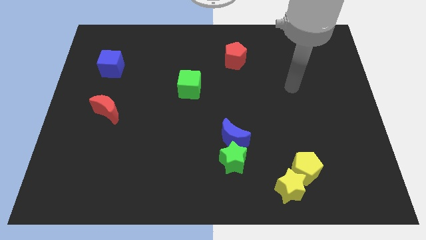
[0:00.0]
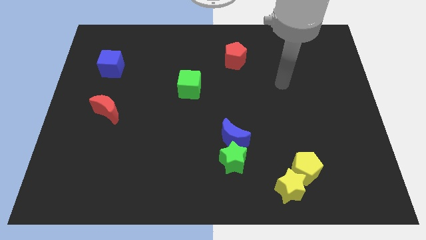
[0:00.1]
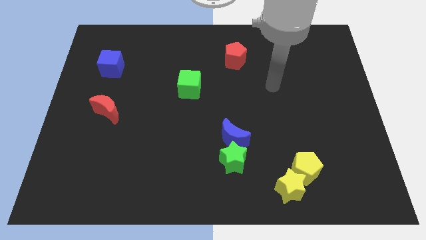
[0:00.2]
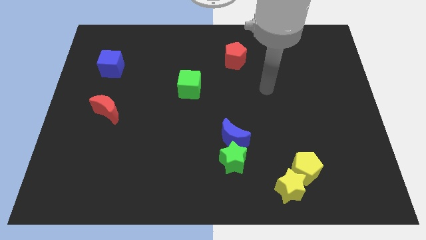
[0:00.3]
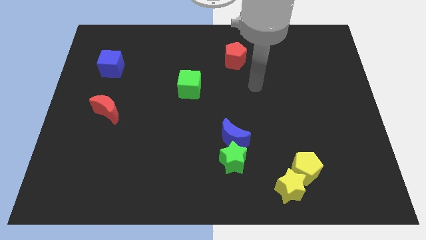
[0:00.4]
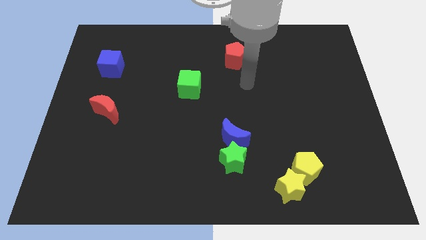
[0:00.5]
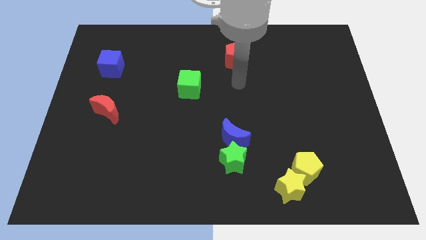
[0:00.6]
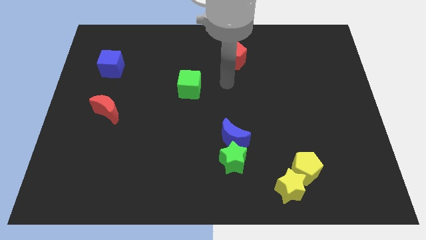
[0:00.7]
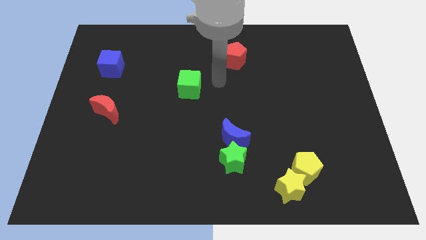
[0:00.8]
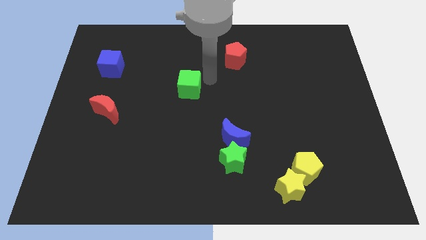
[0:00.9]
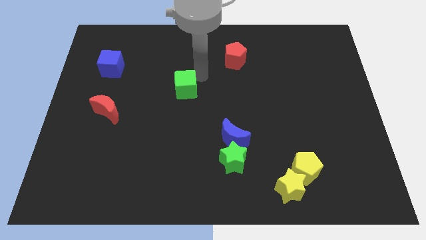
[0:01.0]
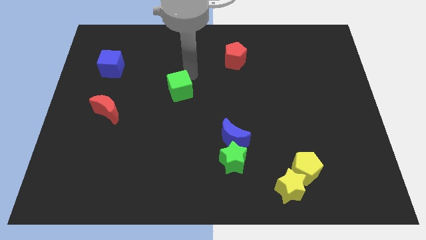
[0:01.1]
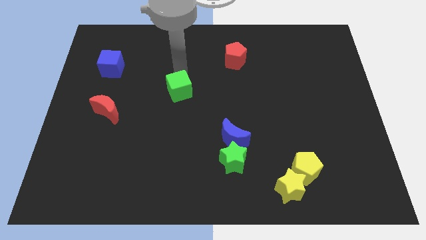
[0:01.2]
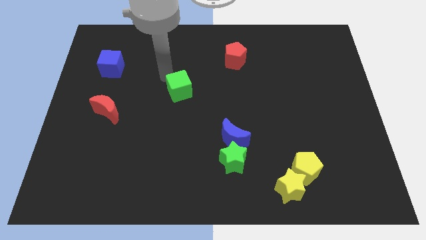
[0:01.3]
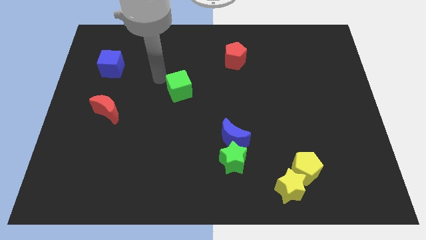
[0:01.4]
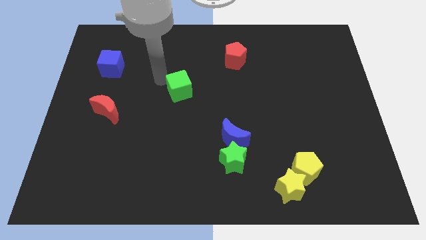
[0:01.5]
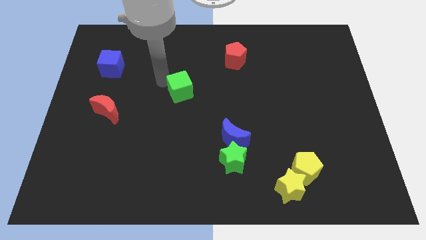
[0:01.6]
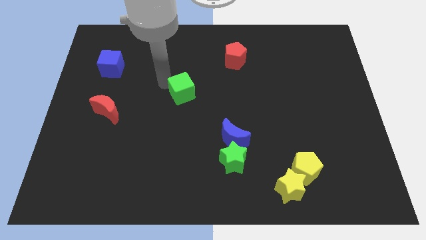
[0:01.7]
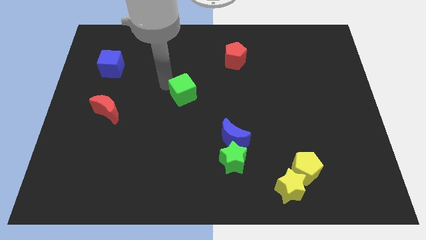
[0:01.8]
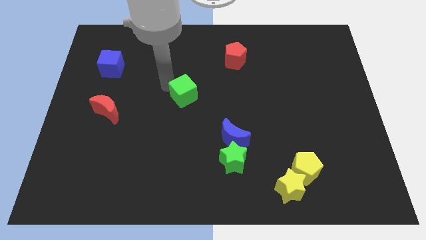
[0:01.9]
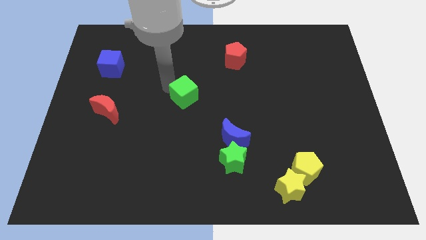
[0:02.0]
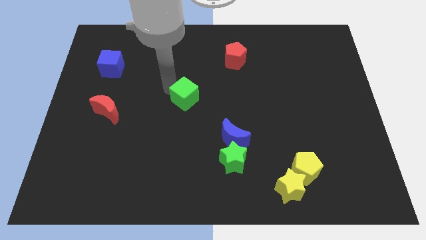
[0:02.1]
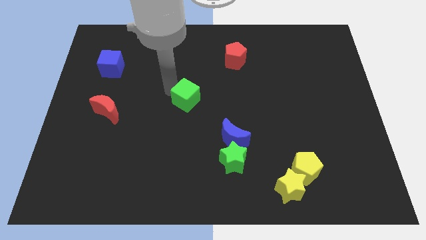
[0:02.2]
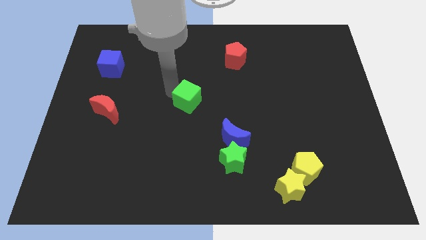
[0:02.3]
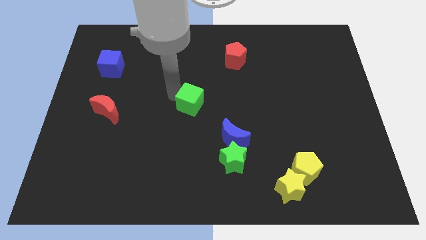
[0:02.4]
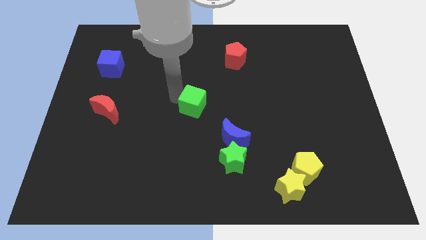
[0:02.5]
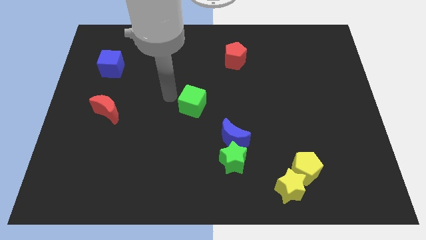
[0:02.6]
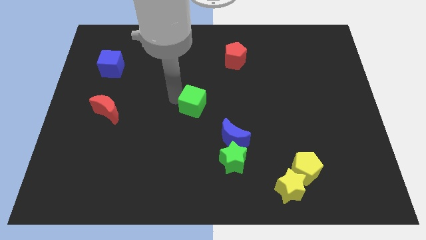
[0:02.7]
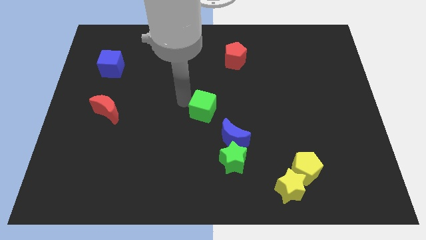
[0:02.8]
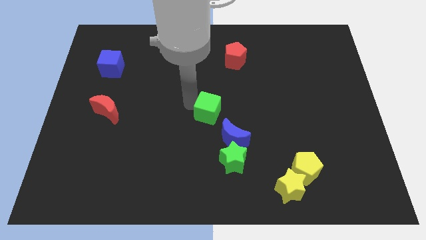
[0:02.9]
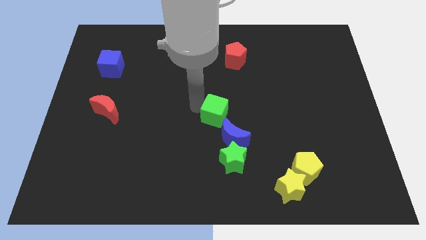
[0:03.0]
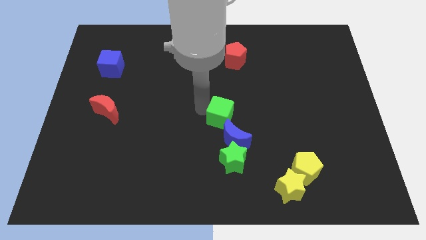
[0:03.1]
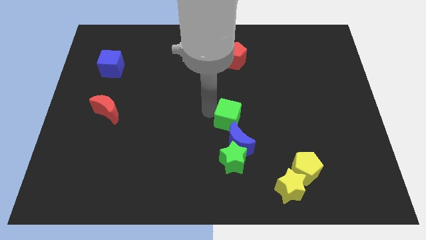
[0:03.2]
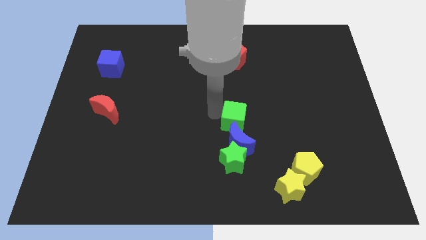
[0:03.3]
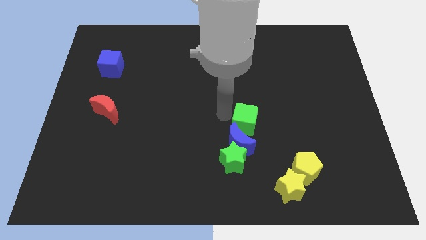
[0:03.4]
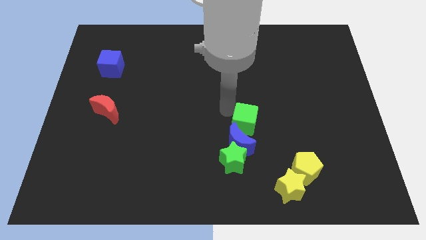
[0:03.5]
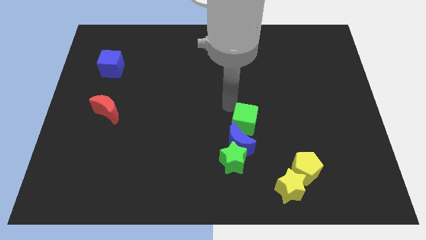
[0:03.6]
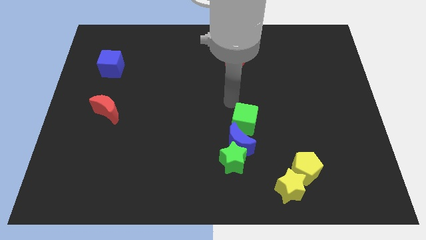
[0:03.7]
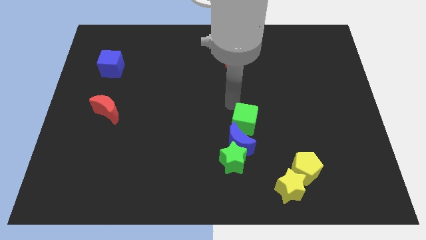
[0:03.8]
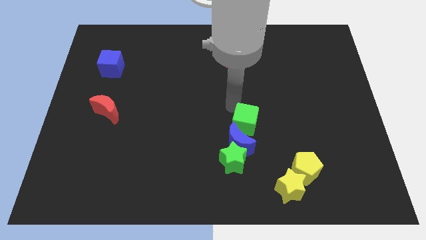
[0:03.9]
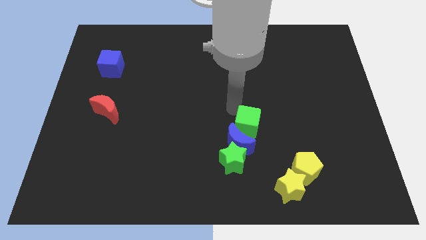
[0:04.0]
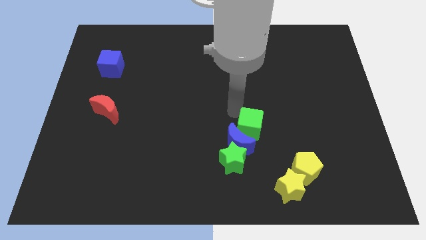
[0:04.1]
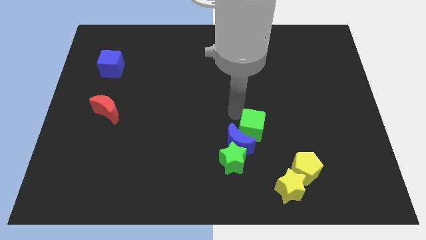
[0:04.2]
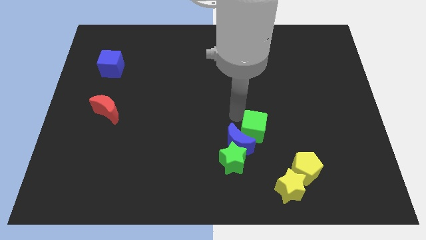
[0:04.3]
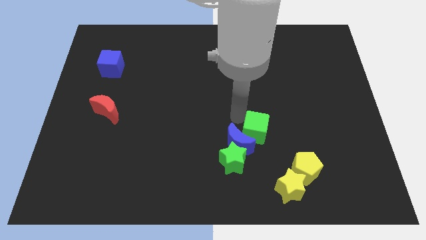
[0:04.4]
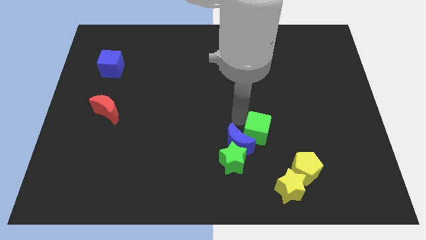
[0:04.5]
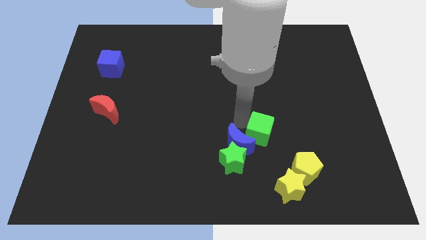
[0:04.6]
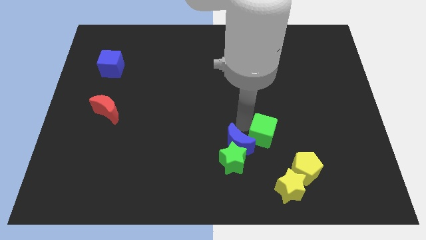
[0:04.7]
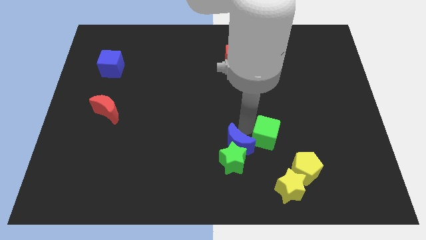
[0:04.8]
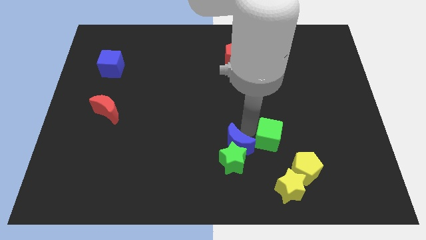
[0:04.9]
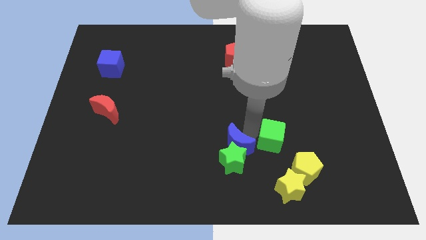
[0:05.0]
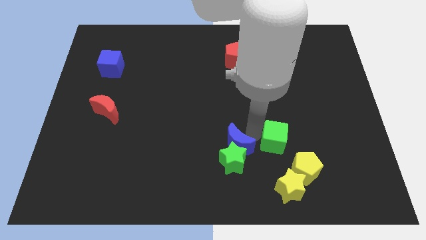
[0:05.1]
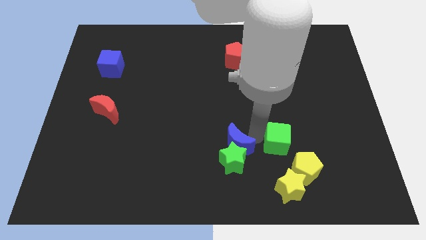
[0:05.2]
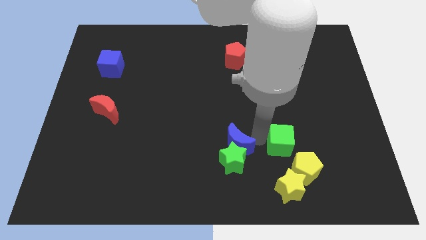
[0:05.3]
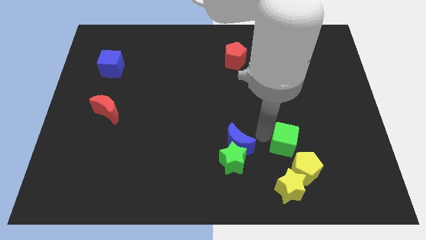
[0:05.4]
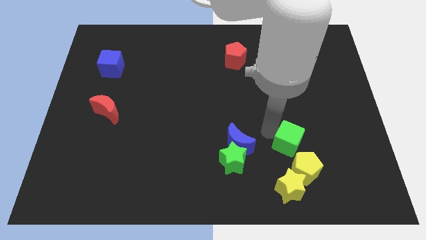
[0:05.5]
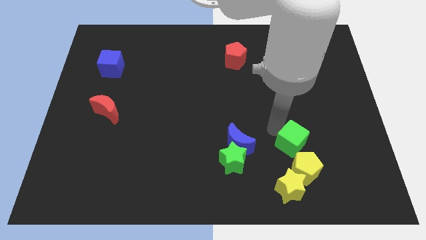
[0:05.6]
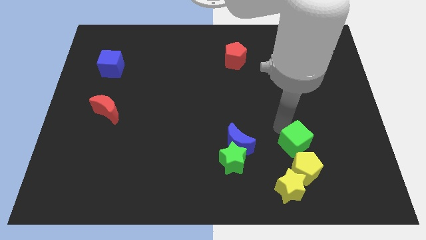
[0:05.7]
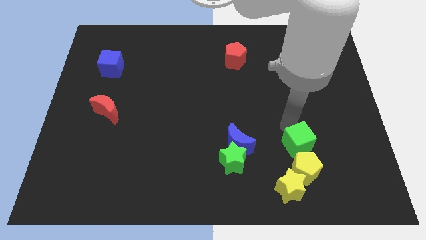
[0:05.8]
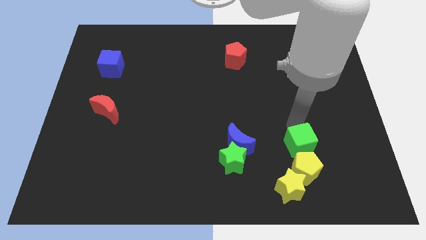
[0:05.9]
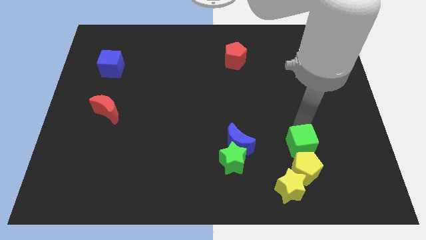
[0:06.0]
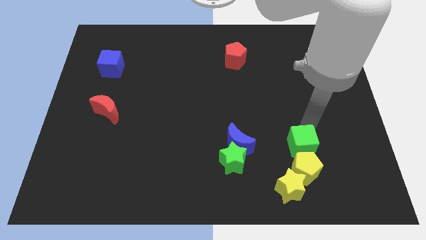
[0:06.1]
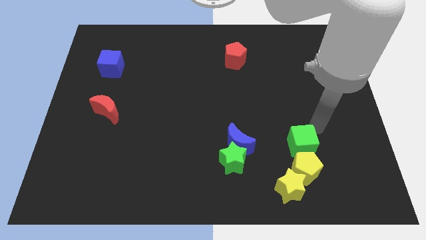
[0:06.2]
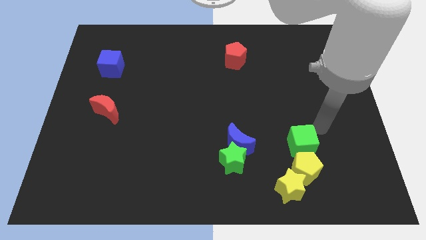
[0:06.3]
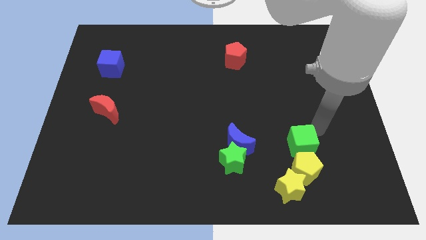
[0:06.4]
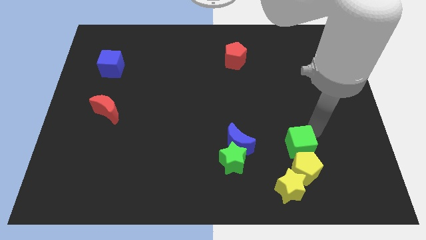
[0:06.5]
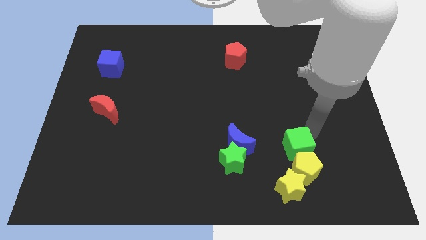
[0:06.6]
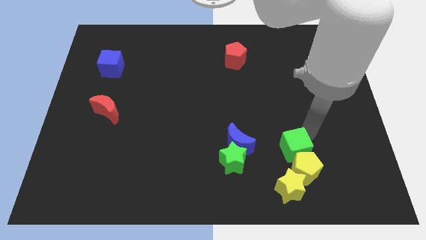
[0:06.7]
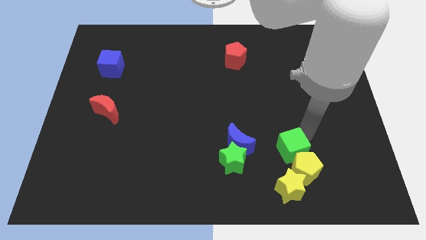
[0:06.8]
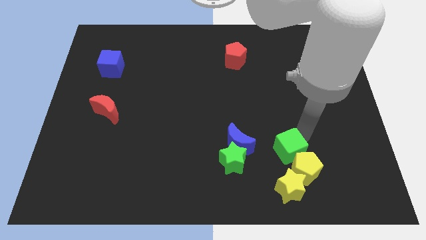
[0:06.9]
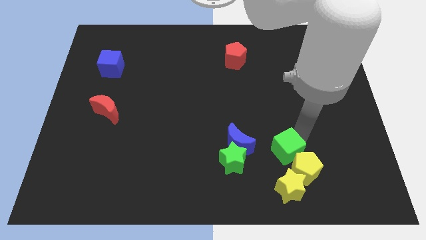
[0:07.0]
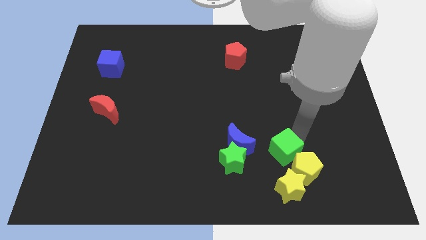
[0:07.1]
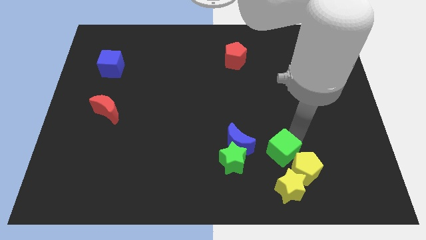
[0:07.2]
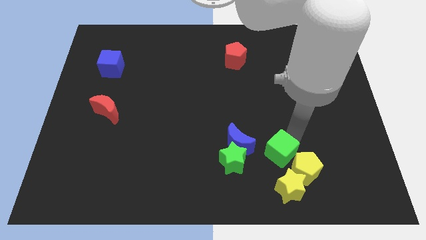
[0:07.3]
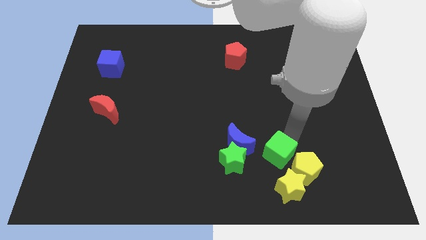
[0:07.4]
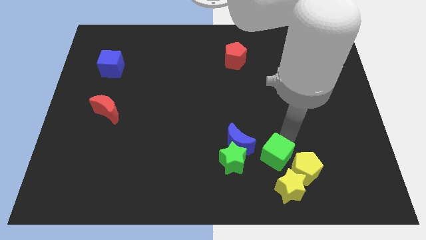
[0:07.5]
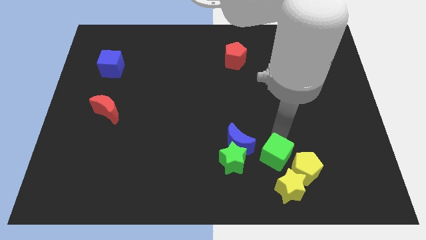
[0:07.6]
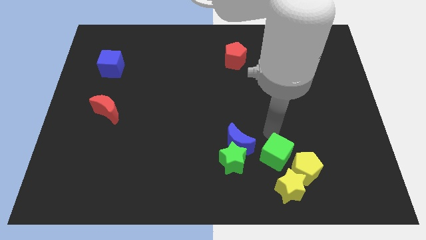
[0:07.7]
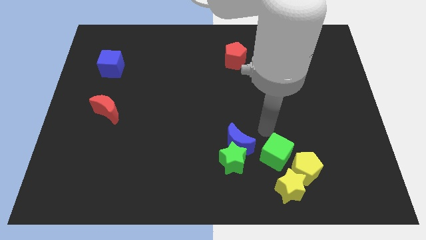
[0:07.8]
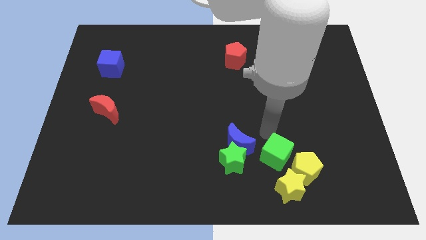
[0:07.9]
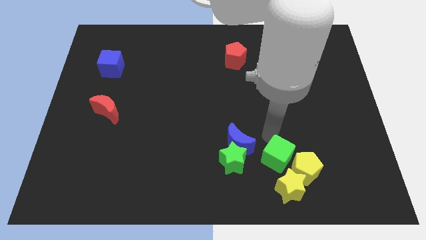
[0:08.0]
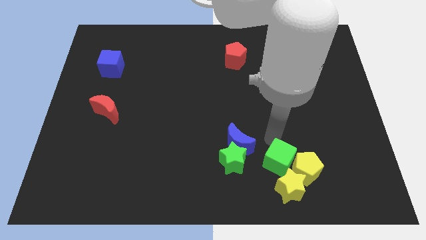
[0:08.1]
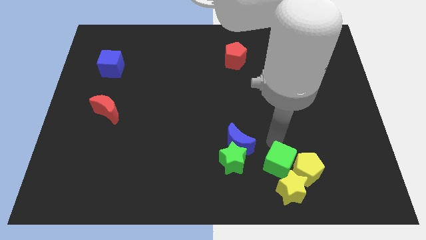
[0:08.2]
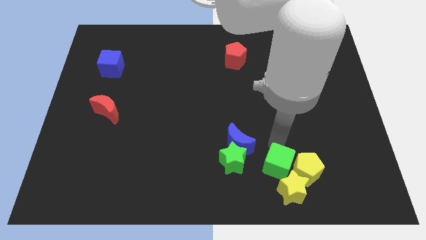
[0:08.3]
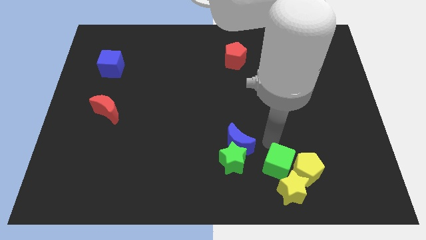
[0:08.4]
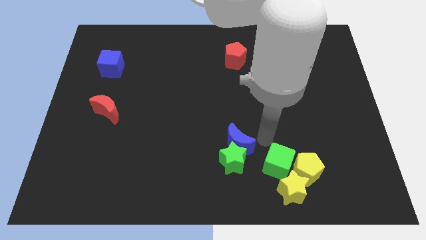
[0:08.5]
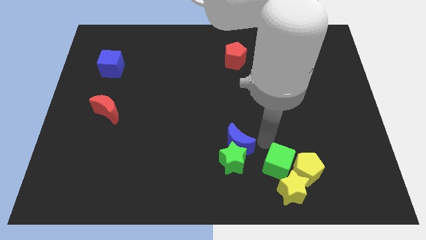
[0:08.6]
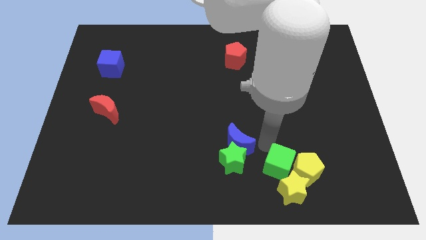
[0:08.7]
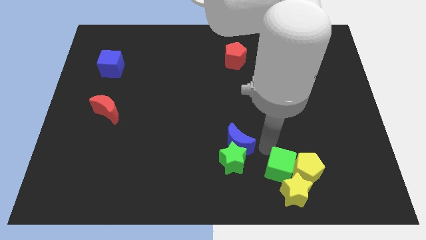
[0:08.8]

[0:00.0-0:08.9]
put the green cube to the yellow star
